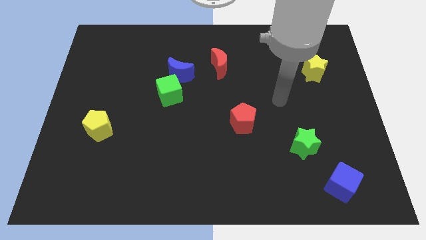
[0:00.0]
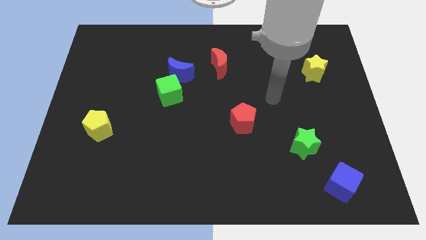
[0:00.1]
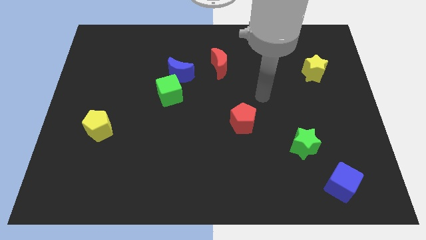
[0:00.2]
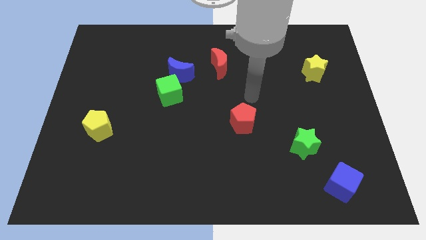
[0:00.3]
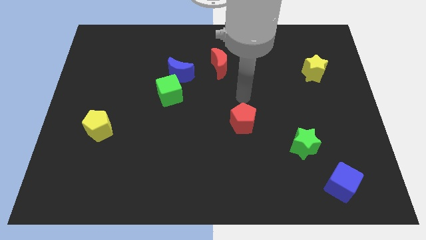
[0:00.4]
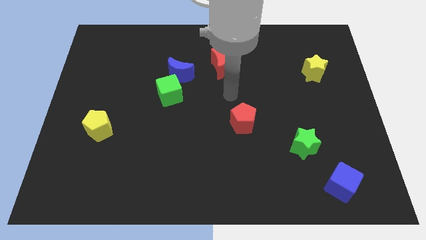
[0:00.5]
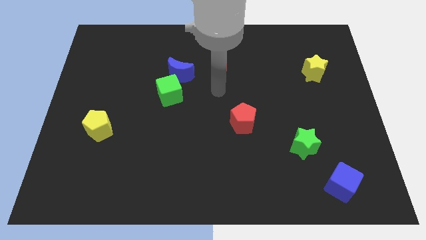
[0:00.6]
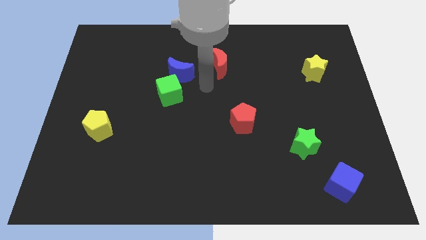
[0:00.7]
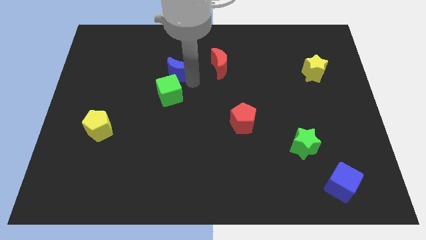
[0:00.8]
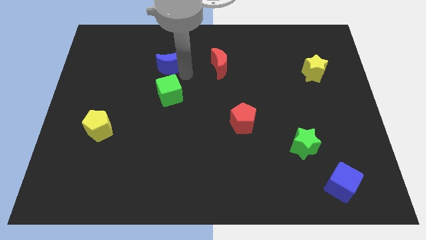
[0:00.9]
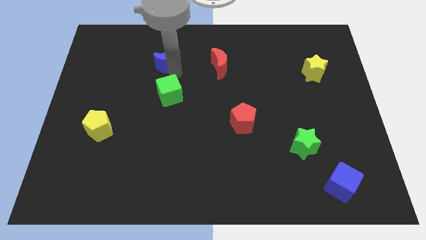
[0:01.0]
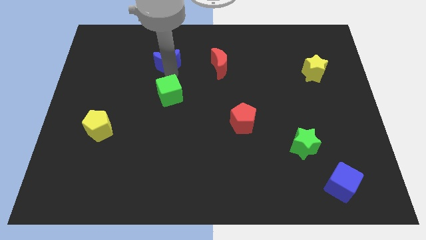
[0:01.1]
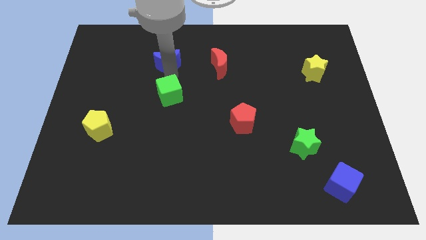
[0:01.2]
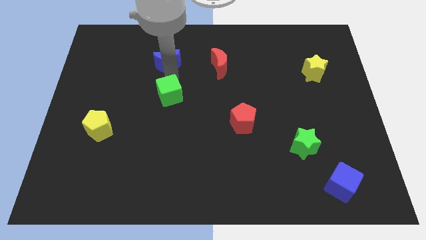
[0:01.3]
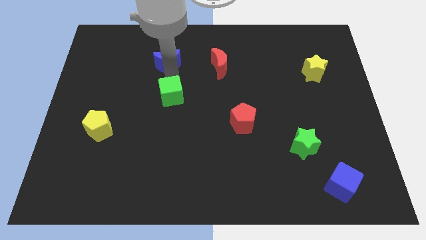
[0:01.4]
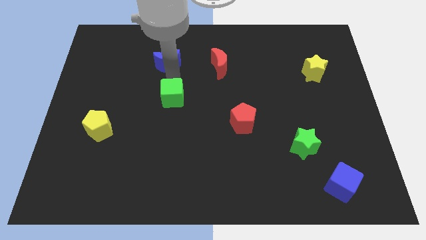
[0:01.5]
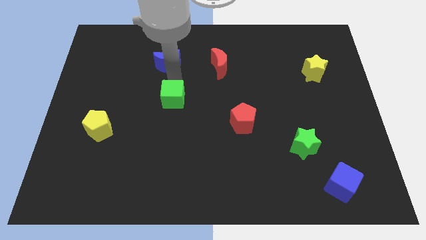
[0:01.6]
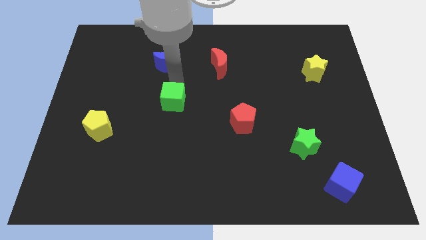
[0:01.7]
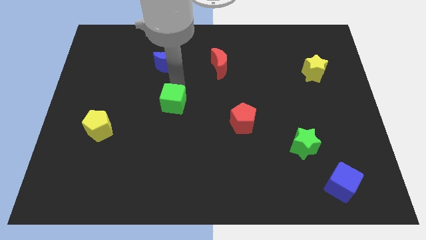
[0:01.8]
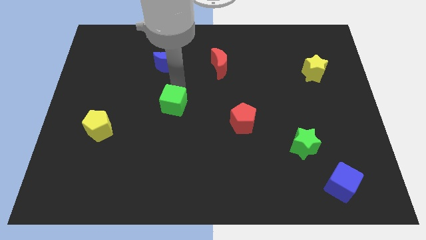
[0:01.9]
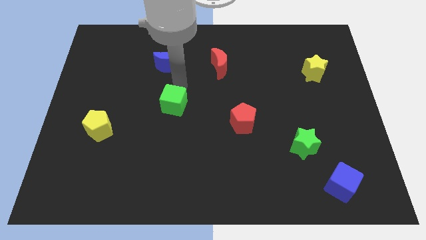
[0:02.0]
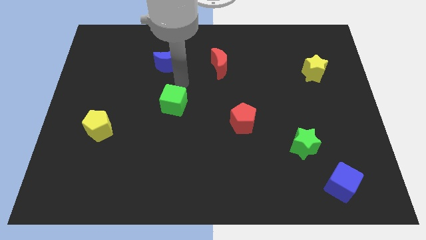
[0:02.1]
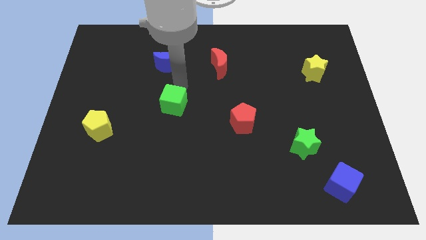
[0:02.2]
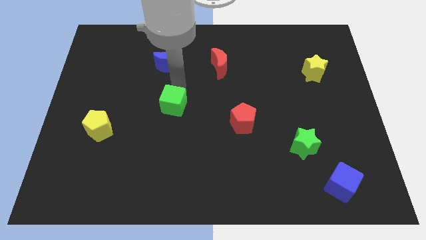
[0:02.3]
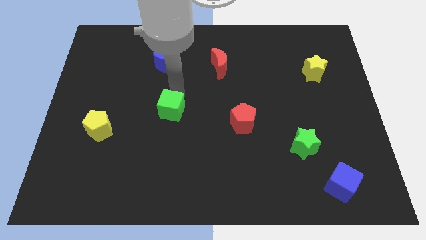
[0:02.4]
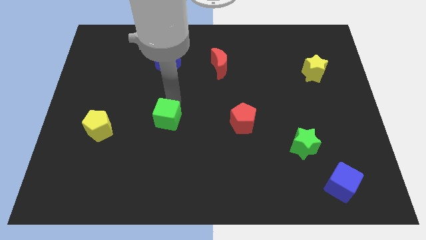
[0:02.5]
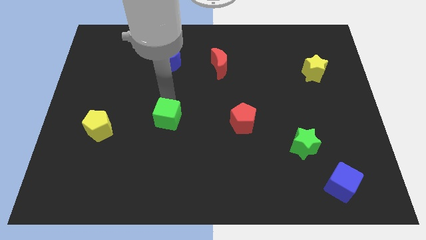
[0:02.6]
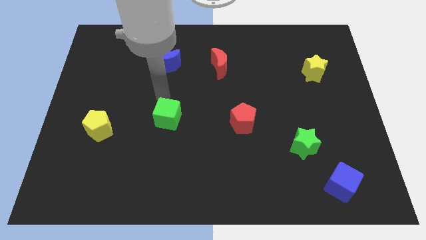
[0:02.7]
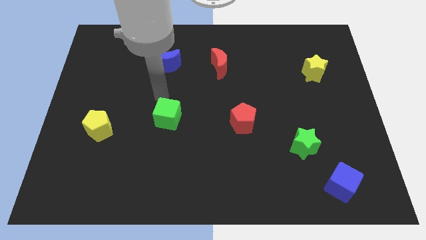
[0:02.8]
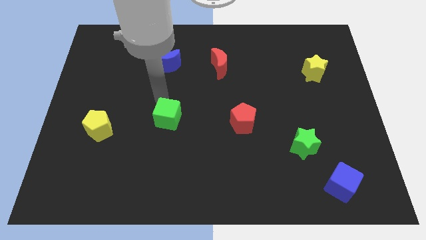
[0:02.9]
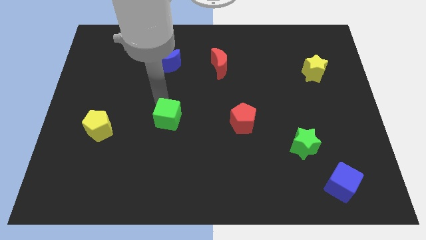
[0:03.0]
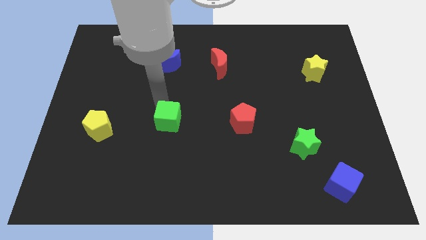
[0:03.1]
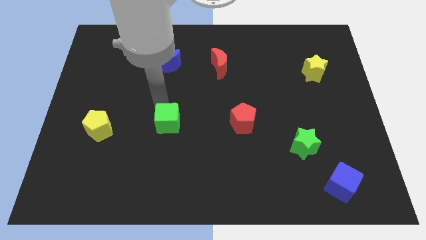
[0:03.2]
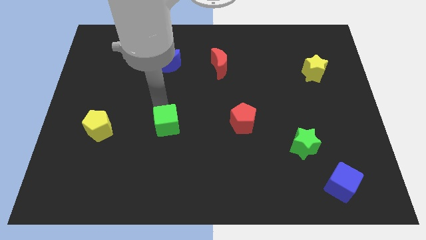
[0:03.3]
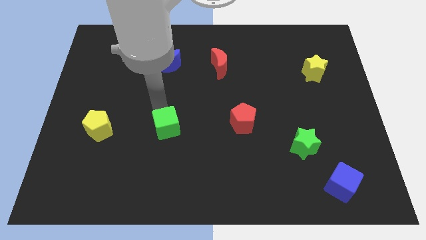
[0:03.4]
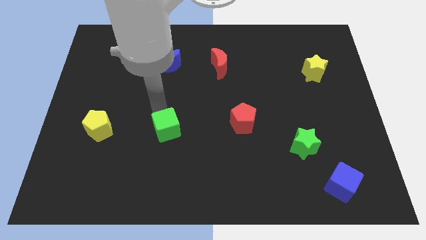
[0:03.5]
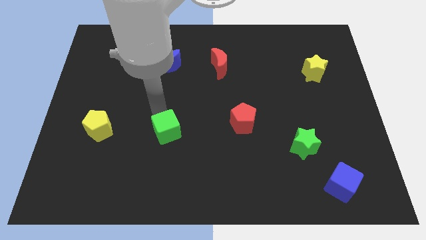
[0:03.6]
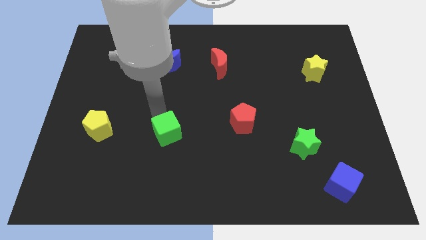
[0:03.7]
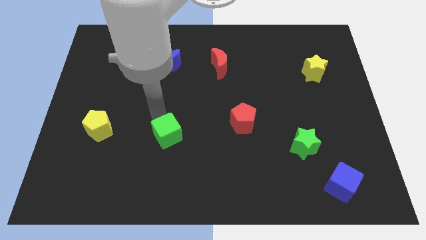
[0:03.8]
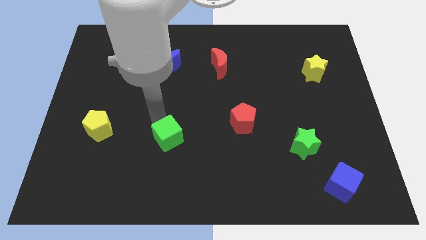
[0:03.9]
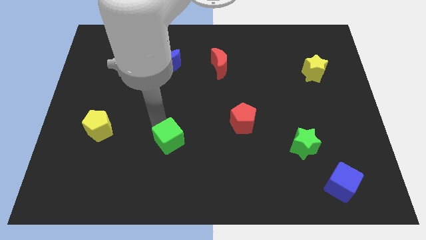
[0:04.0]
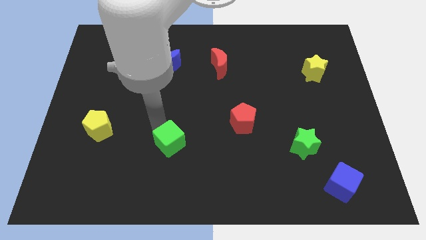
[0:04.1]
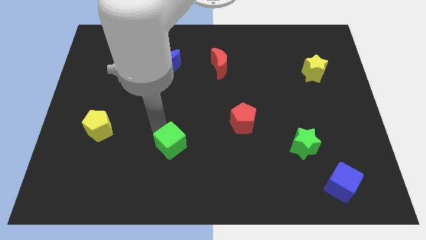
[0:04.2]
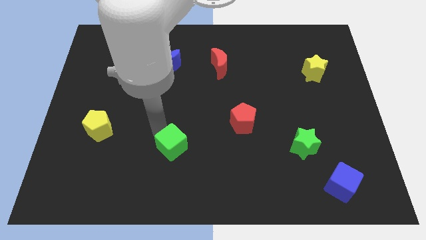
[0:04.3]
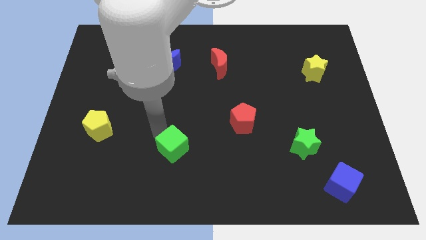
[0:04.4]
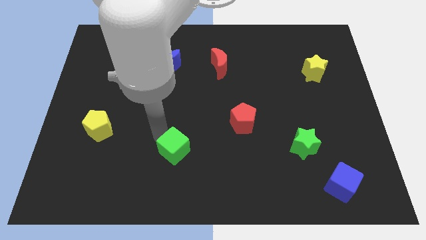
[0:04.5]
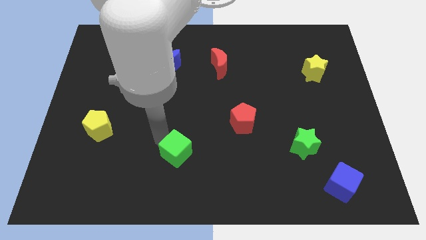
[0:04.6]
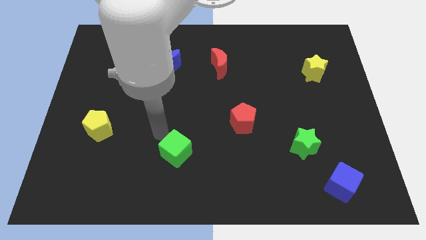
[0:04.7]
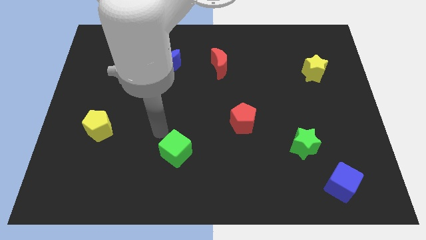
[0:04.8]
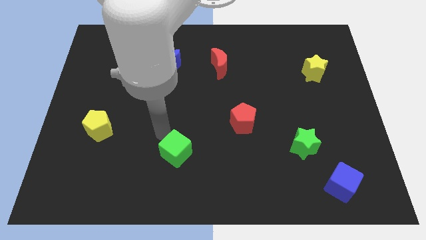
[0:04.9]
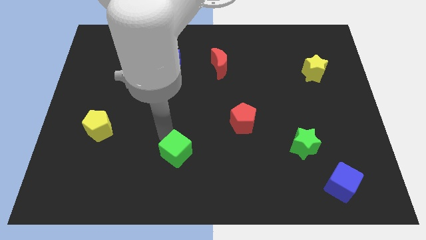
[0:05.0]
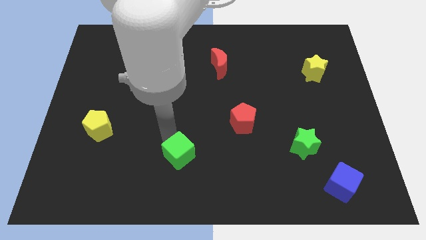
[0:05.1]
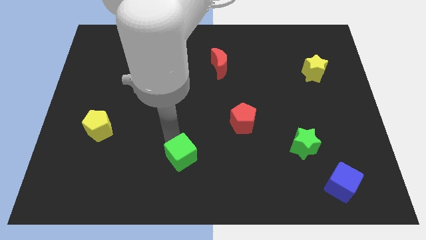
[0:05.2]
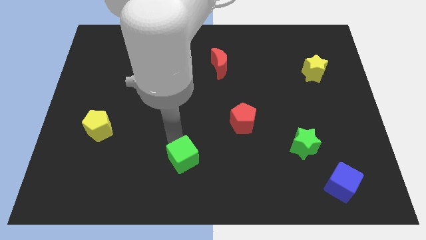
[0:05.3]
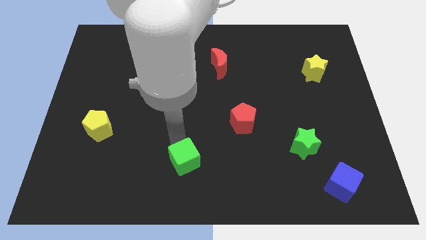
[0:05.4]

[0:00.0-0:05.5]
move the green cube to the bottom
